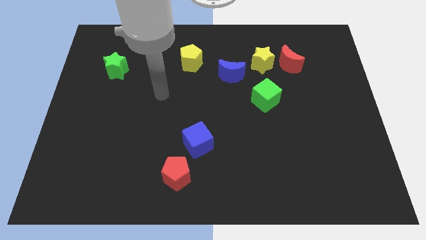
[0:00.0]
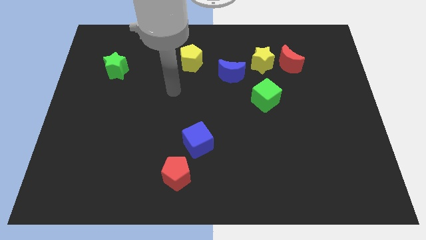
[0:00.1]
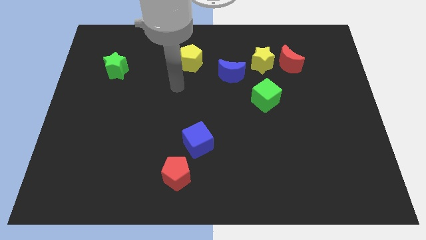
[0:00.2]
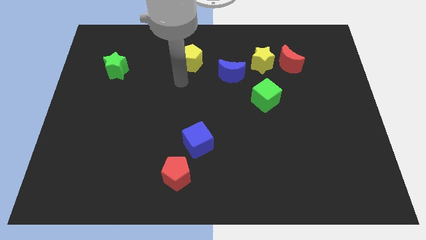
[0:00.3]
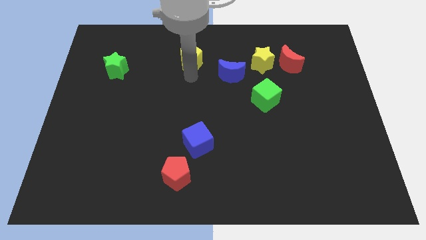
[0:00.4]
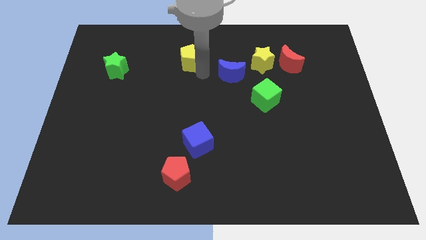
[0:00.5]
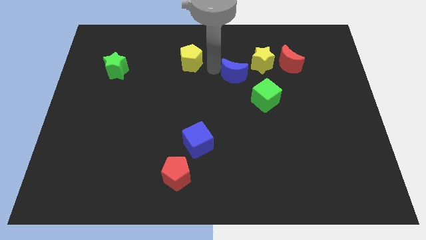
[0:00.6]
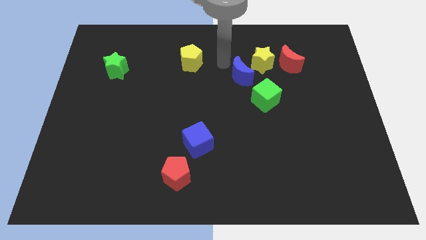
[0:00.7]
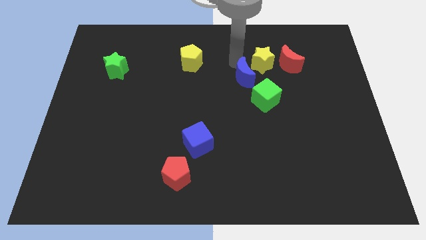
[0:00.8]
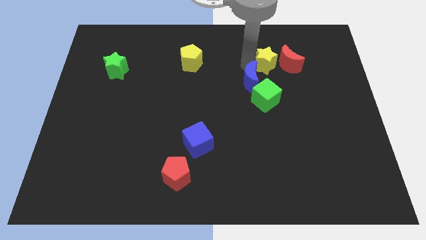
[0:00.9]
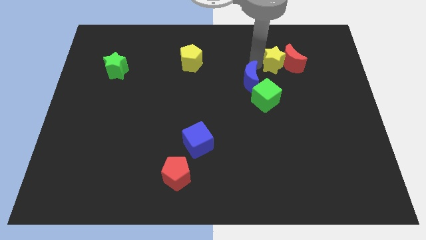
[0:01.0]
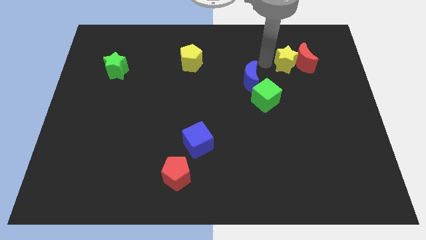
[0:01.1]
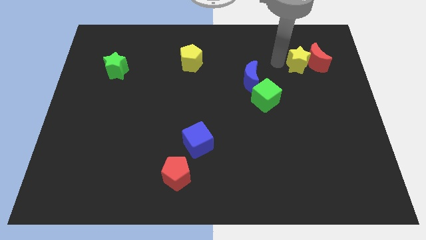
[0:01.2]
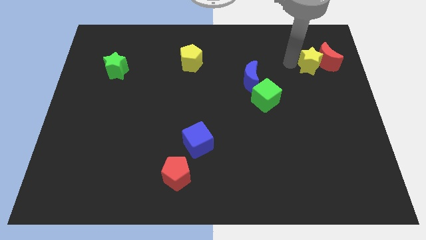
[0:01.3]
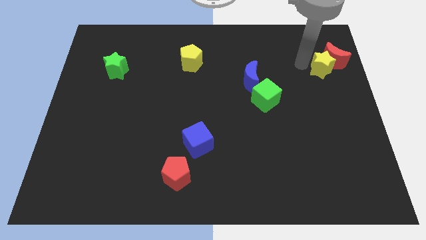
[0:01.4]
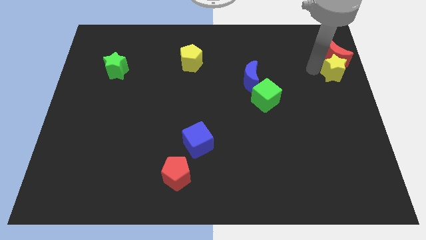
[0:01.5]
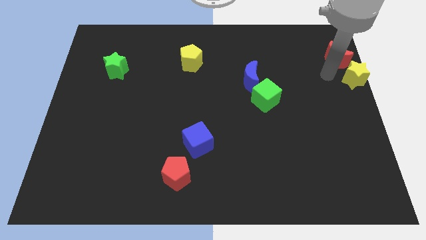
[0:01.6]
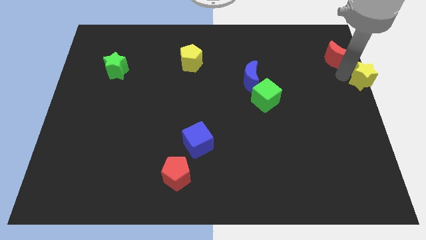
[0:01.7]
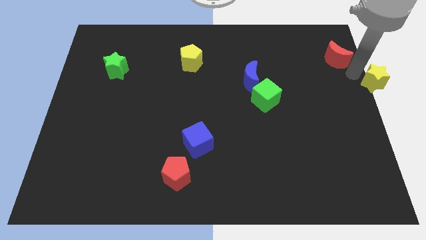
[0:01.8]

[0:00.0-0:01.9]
pull the red moon apart from the yellow star

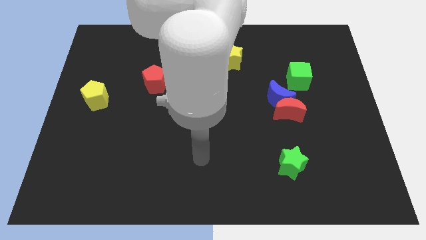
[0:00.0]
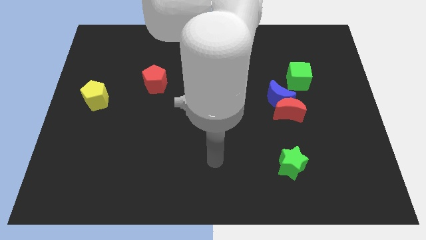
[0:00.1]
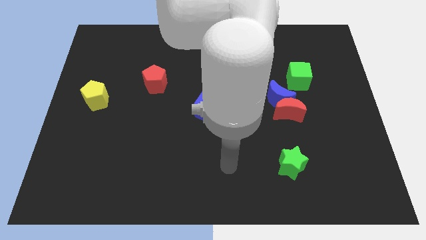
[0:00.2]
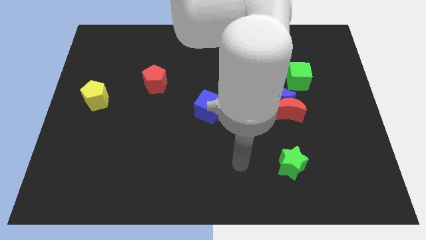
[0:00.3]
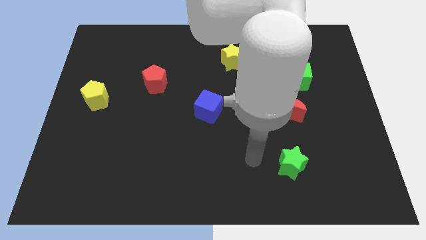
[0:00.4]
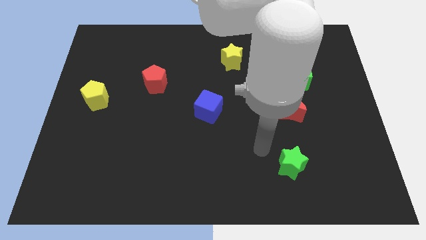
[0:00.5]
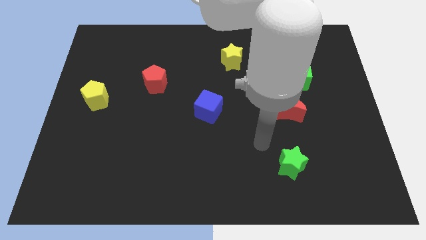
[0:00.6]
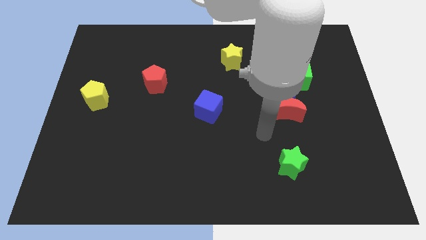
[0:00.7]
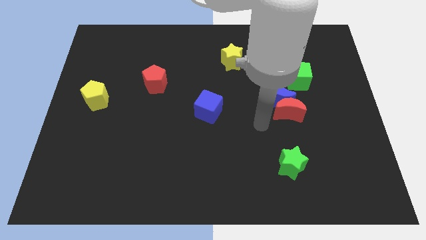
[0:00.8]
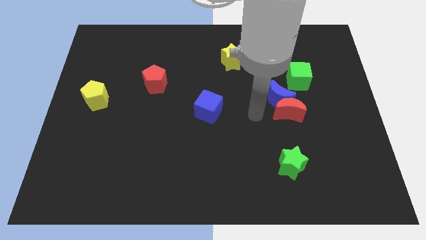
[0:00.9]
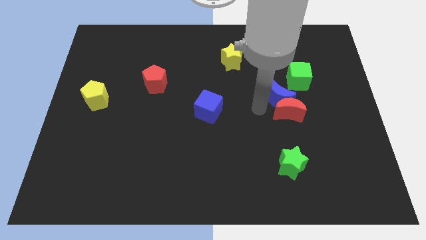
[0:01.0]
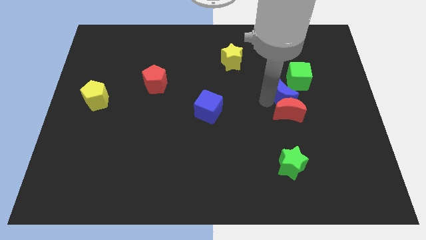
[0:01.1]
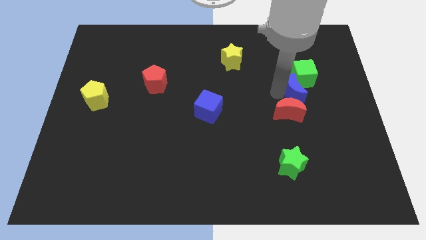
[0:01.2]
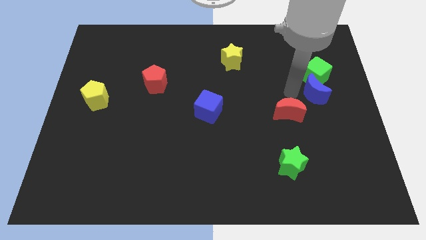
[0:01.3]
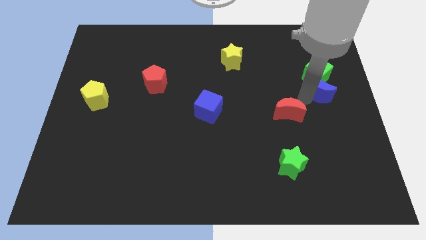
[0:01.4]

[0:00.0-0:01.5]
pull the red moon apart from the blue moon

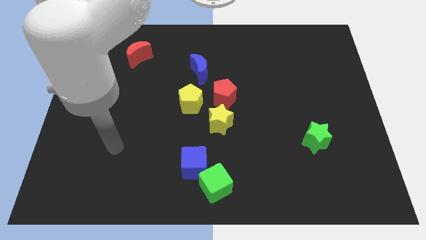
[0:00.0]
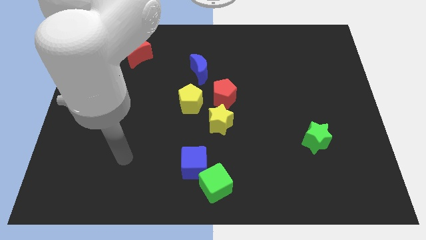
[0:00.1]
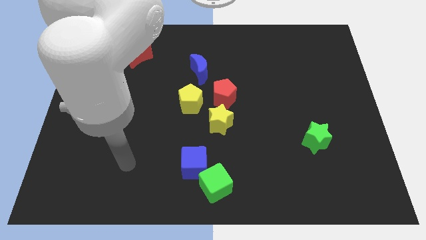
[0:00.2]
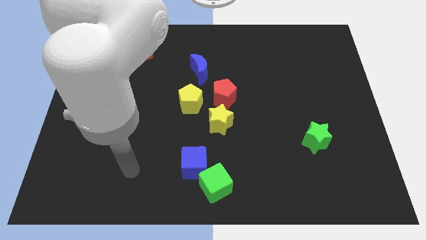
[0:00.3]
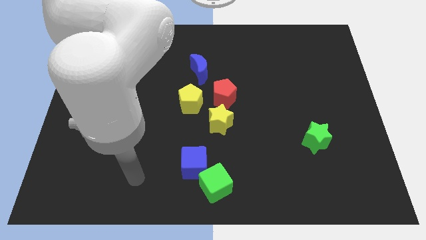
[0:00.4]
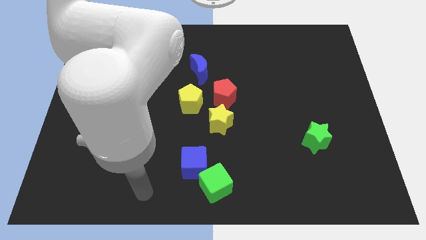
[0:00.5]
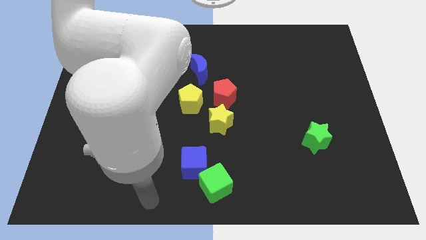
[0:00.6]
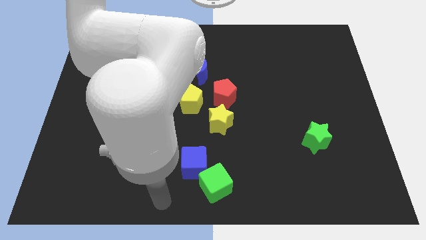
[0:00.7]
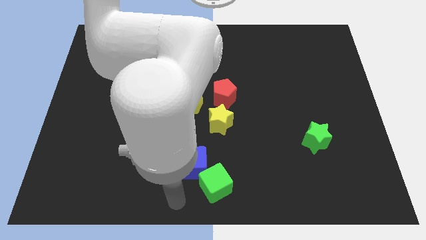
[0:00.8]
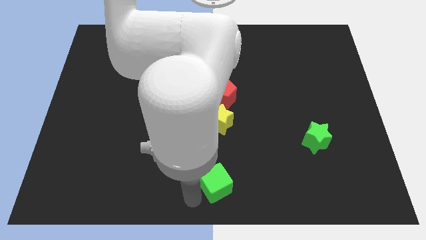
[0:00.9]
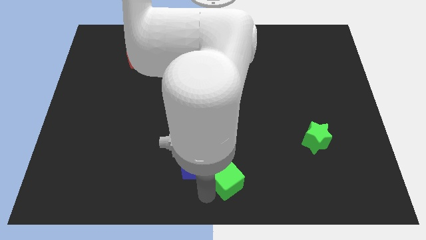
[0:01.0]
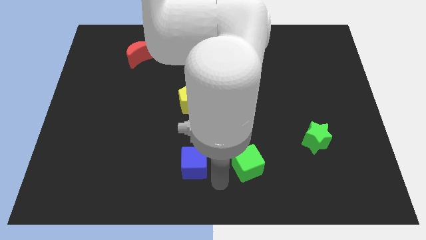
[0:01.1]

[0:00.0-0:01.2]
separate the blue cube from the green cube

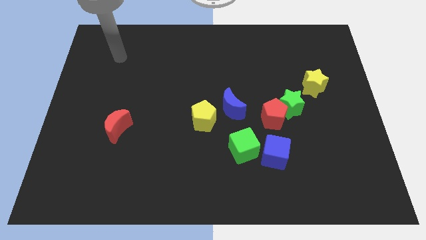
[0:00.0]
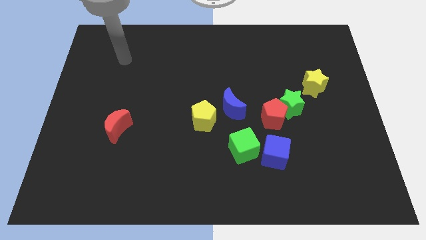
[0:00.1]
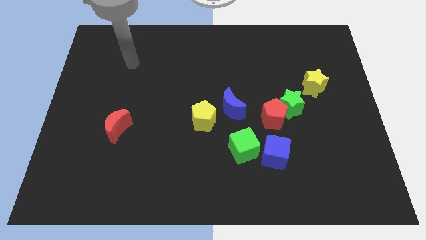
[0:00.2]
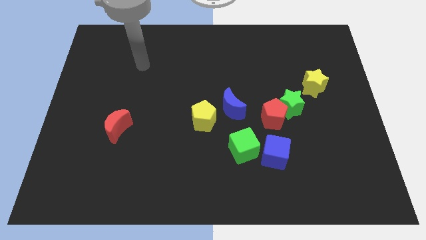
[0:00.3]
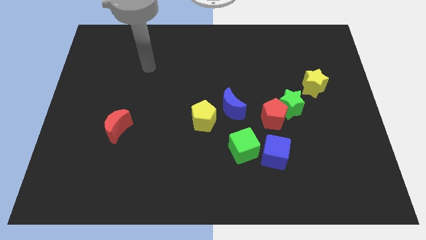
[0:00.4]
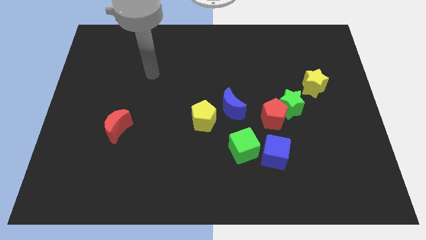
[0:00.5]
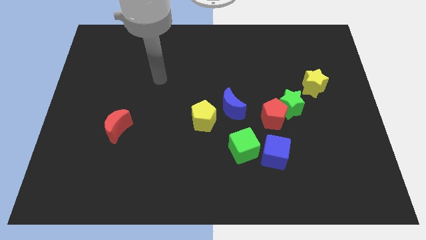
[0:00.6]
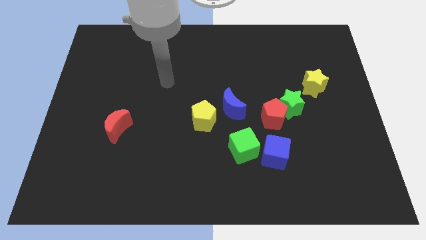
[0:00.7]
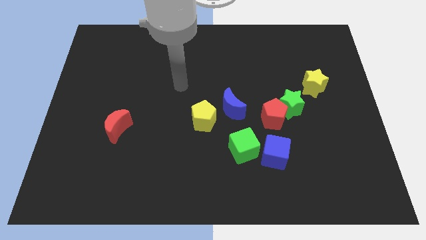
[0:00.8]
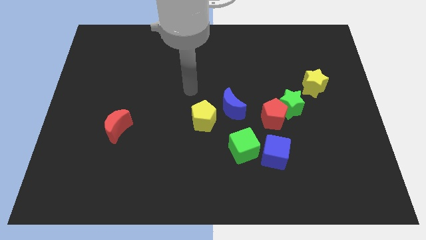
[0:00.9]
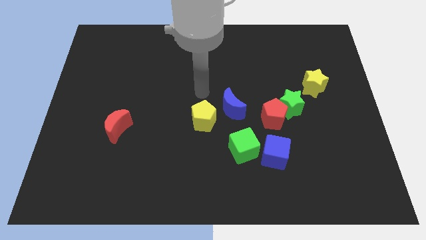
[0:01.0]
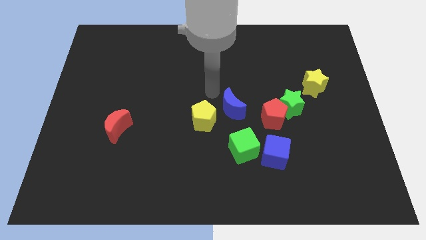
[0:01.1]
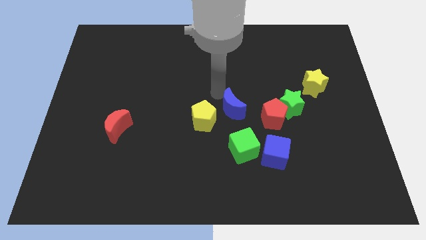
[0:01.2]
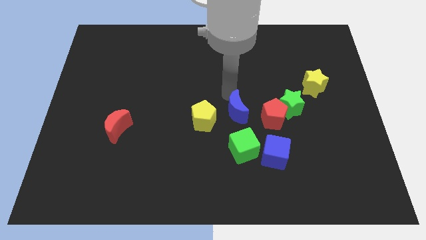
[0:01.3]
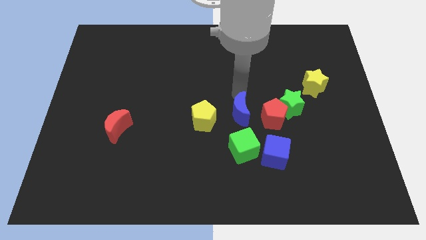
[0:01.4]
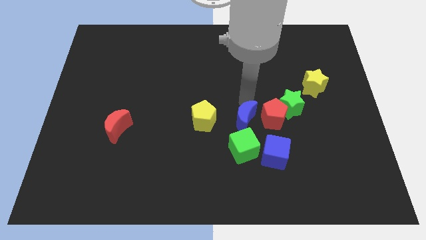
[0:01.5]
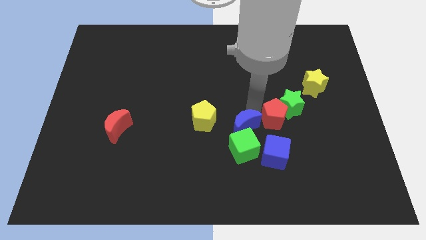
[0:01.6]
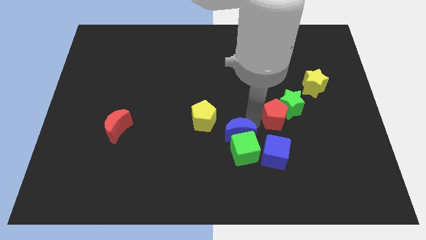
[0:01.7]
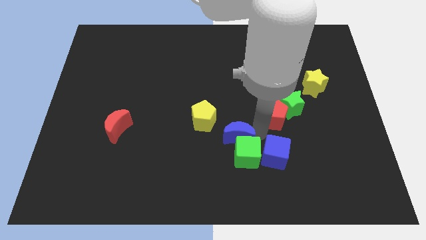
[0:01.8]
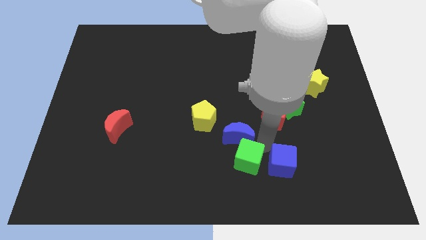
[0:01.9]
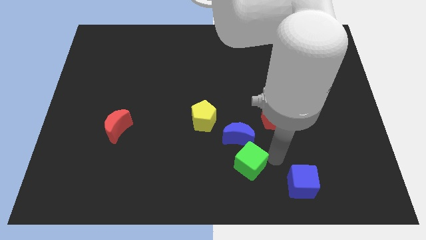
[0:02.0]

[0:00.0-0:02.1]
separate the green cube from the blue cube

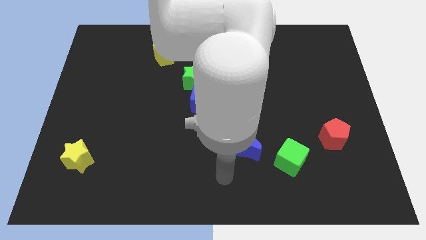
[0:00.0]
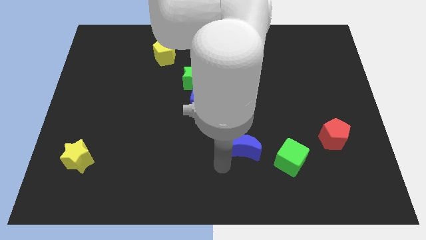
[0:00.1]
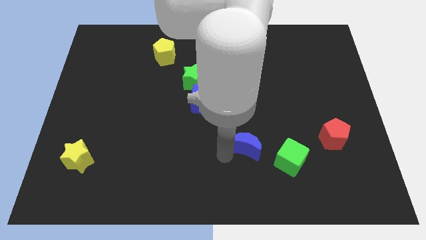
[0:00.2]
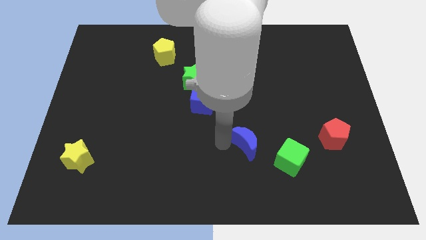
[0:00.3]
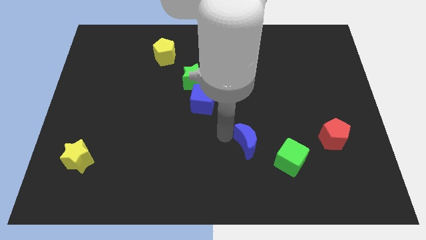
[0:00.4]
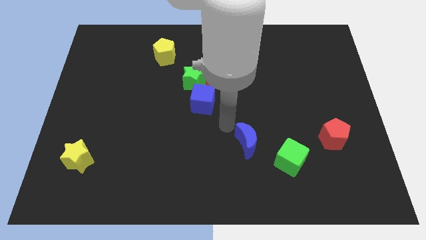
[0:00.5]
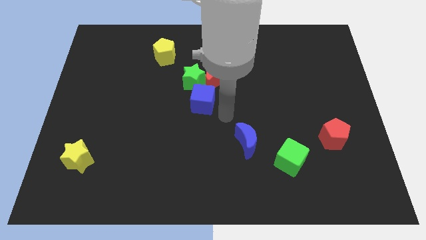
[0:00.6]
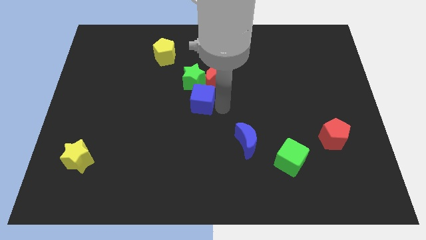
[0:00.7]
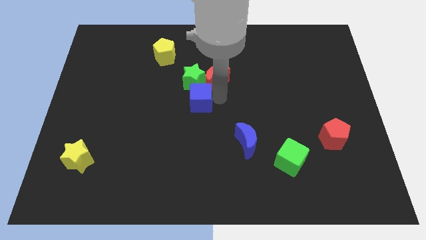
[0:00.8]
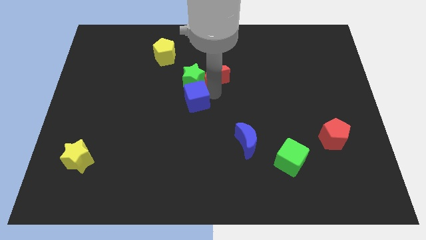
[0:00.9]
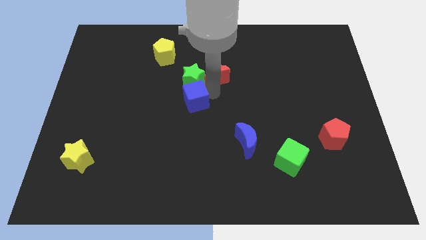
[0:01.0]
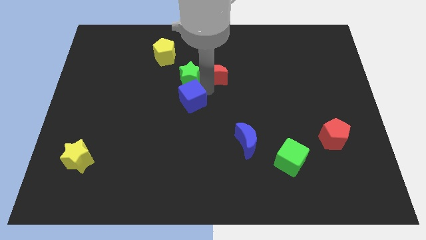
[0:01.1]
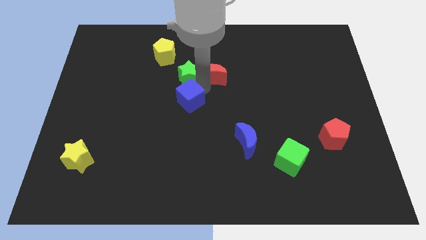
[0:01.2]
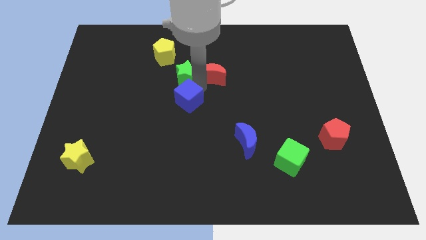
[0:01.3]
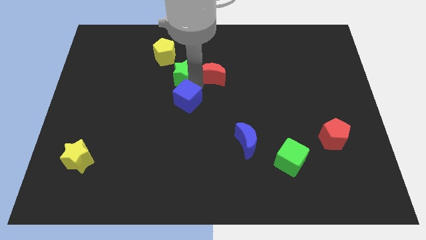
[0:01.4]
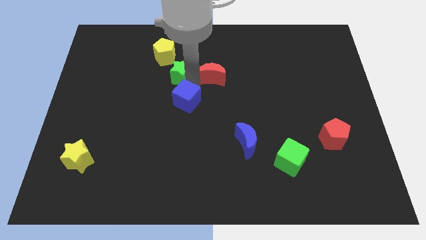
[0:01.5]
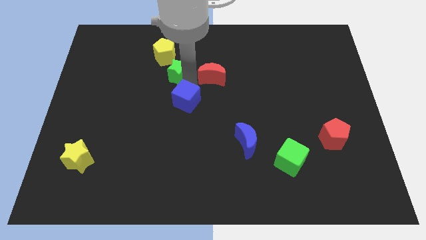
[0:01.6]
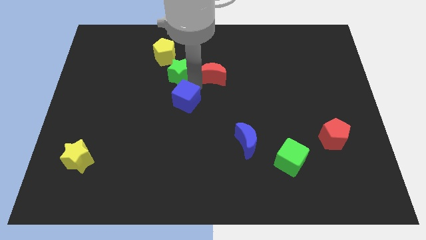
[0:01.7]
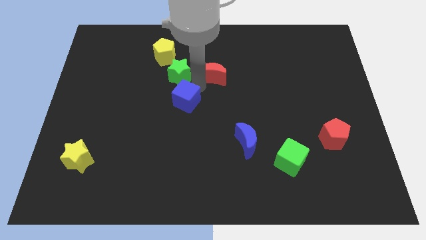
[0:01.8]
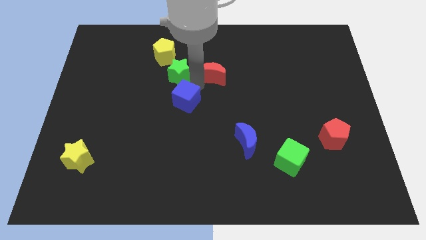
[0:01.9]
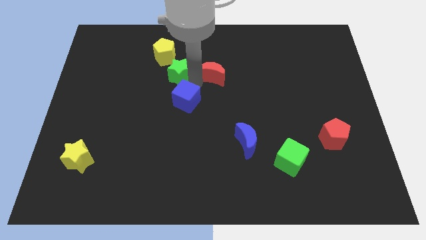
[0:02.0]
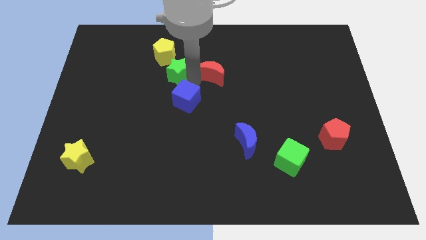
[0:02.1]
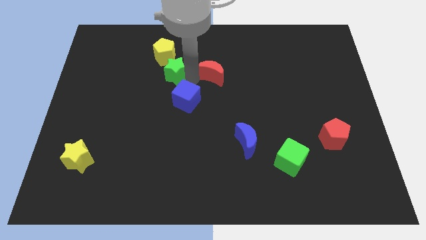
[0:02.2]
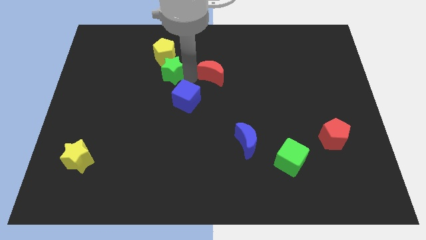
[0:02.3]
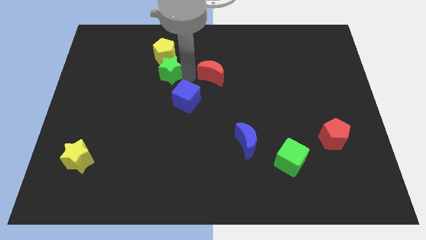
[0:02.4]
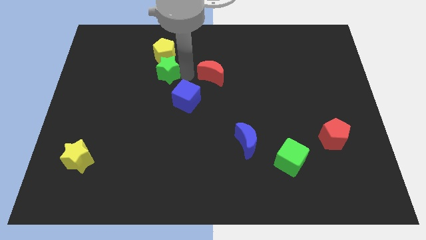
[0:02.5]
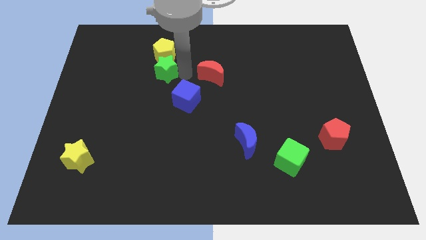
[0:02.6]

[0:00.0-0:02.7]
separate the green star from the red moon and blue cube
